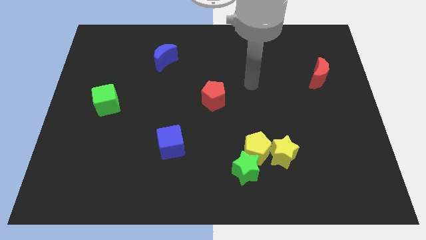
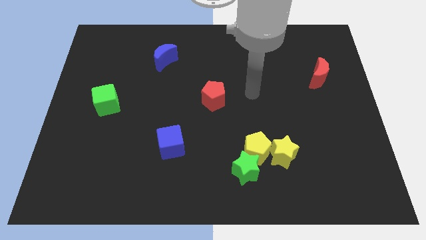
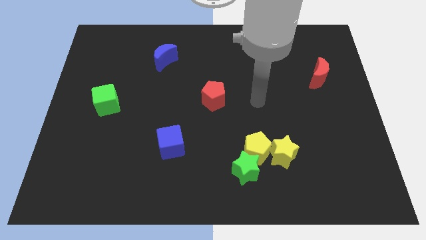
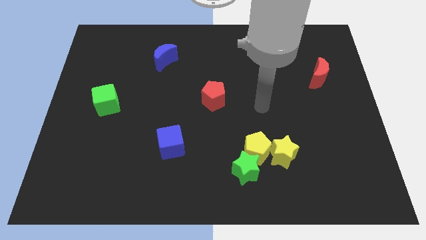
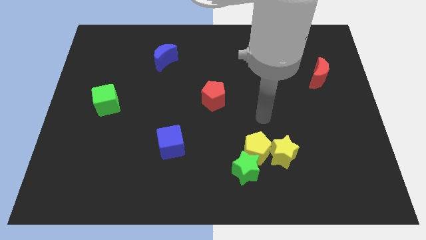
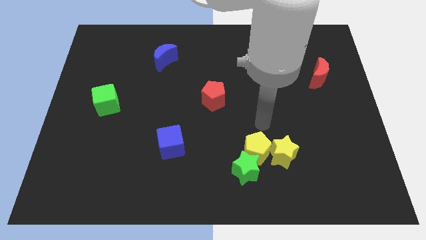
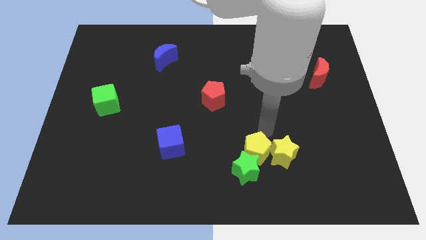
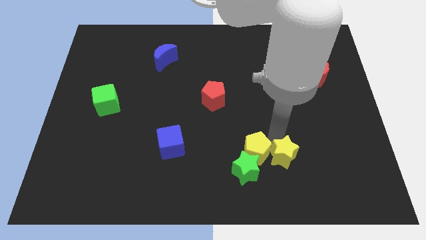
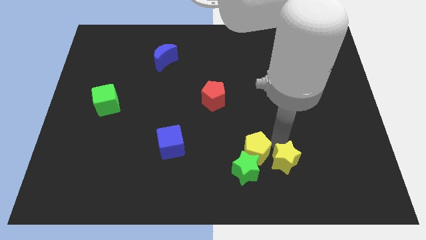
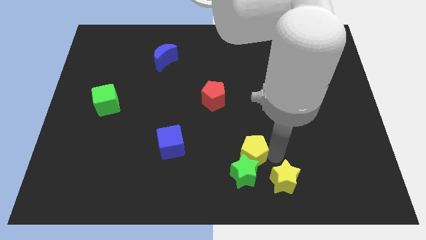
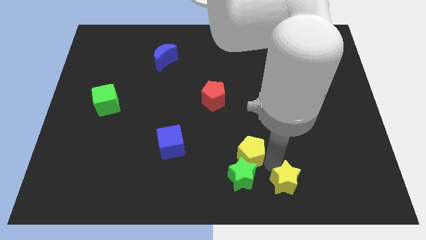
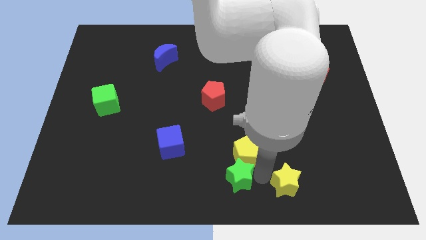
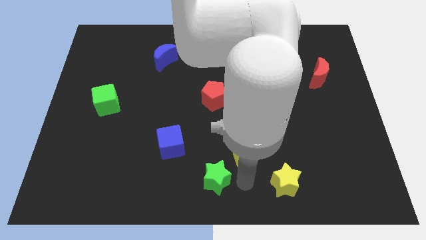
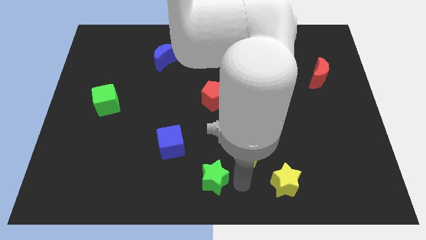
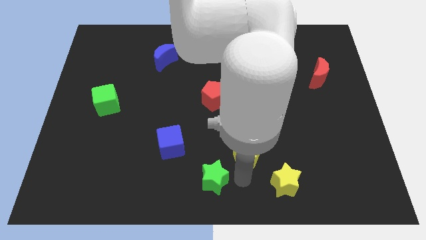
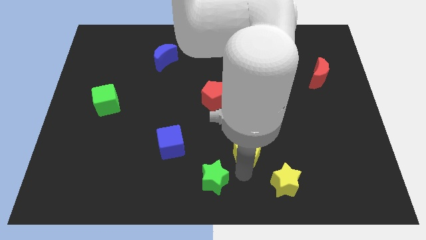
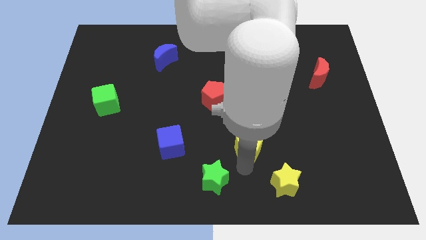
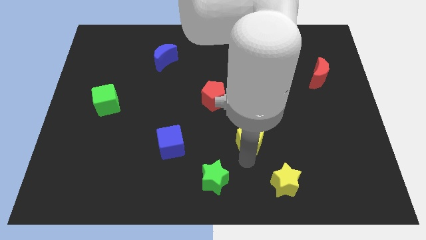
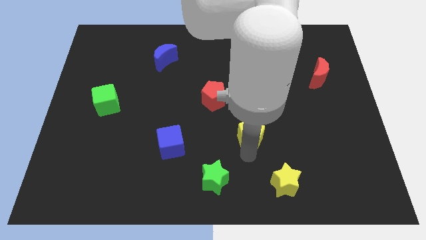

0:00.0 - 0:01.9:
pull the yellow pentagon apart from the green star and yellow star

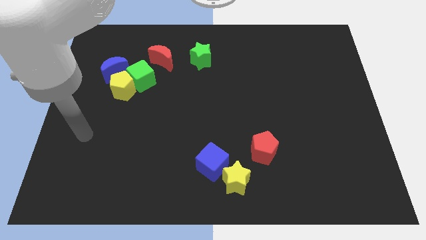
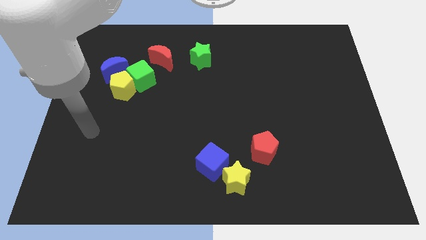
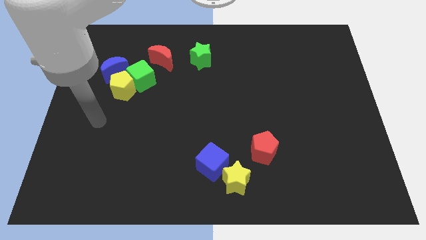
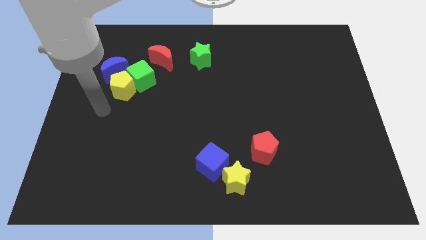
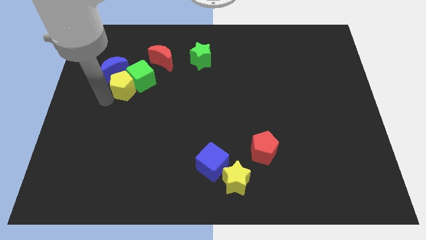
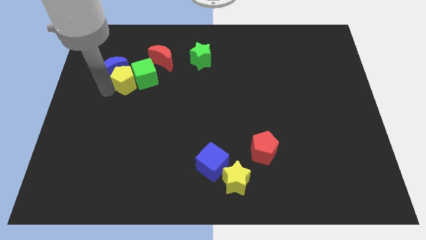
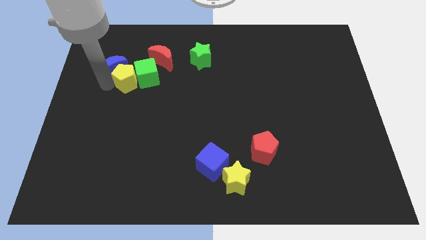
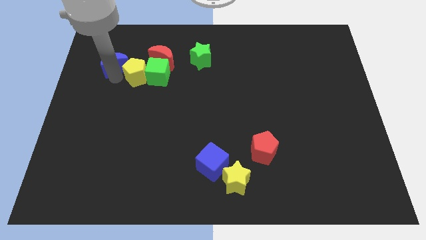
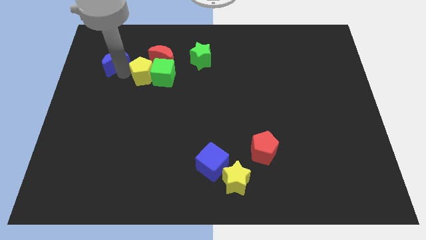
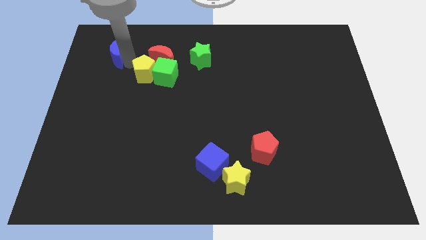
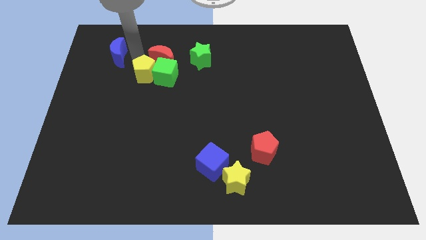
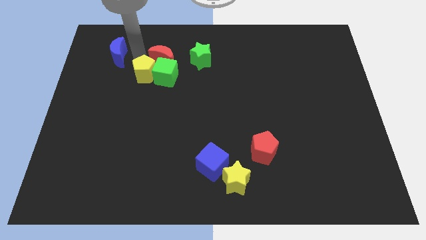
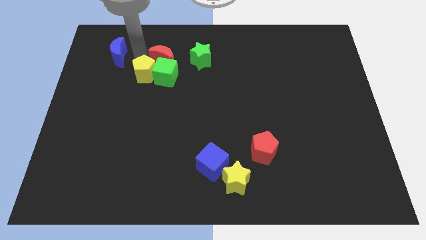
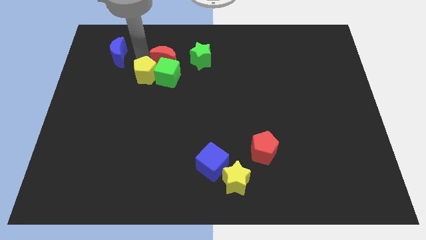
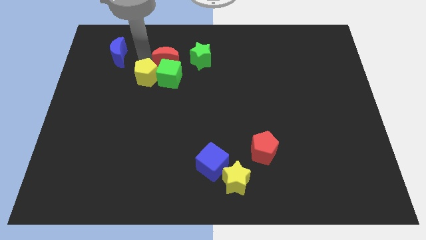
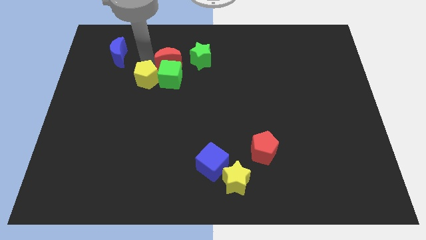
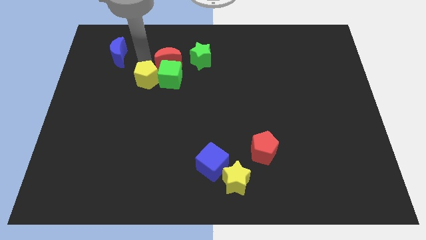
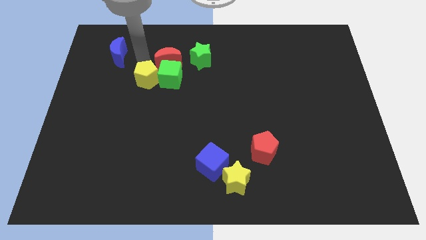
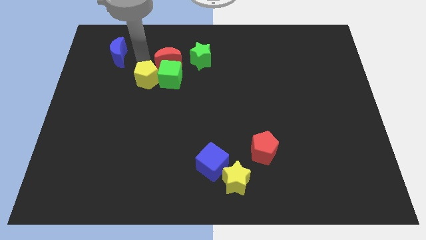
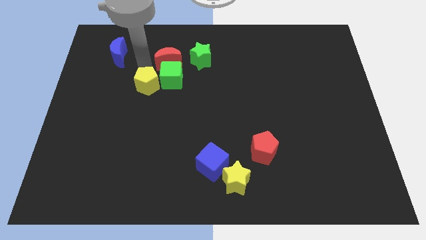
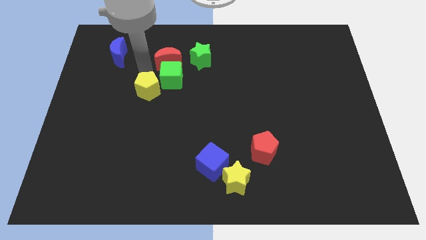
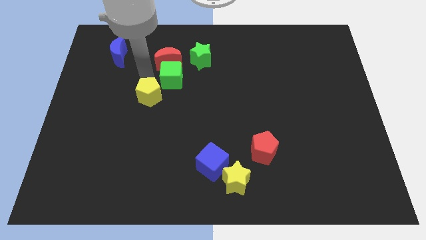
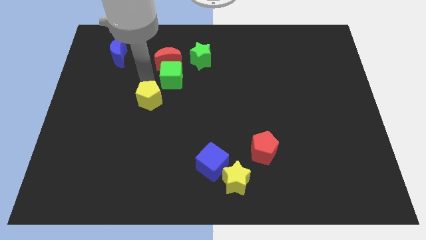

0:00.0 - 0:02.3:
separate the yellow pentagon from the green cube and blue moon

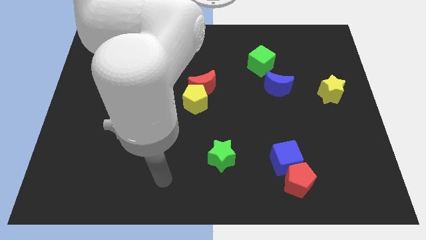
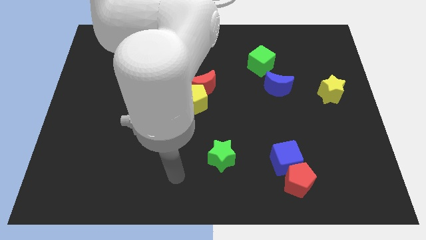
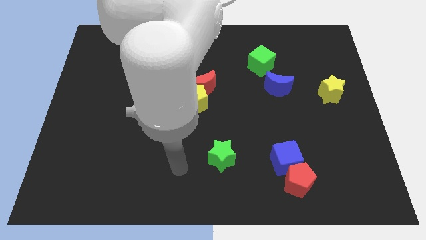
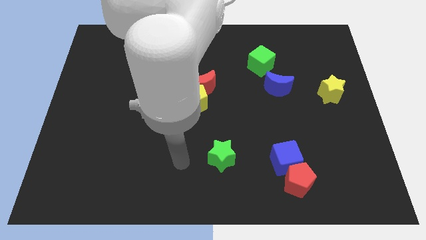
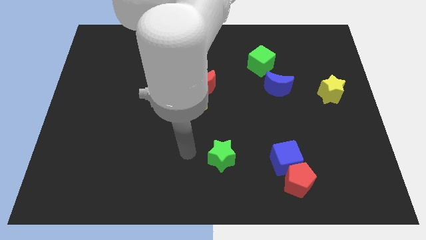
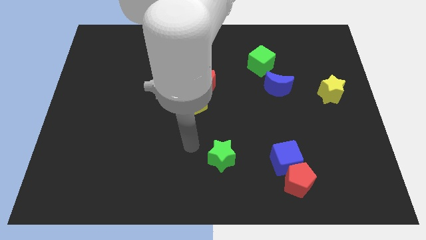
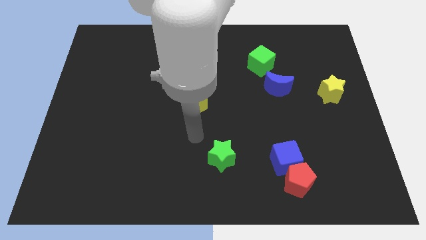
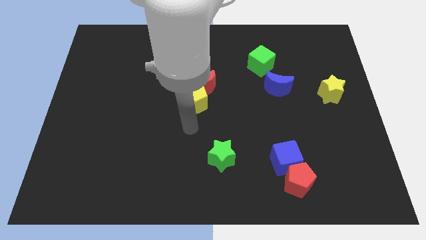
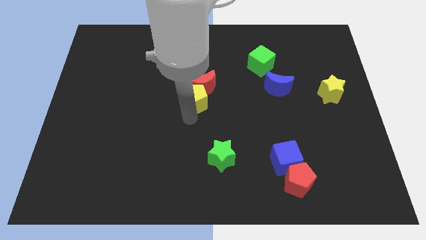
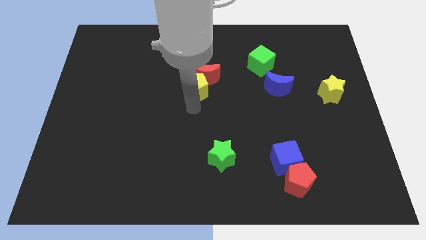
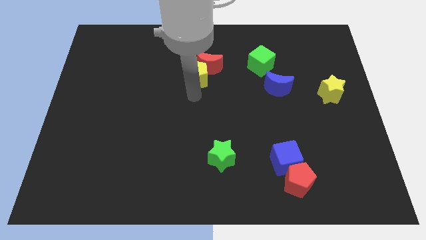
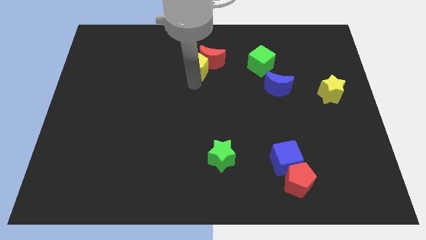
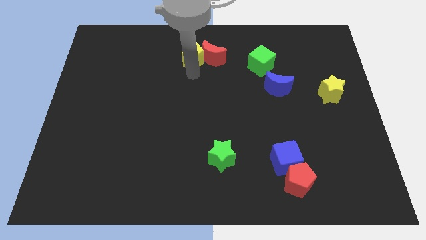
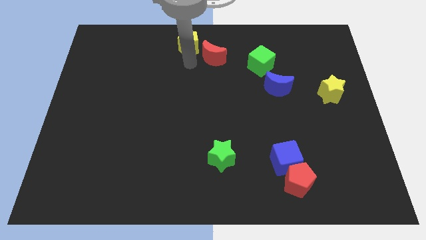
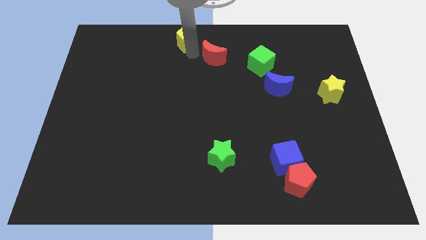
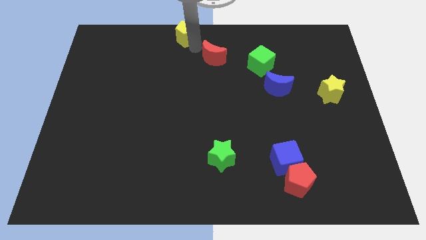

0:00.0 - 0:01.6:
separate the red moon from the yellow pentagon

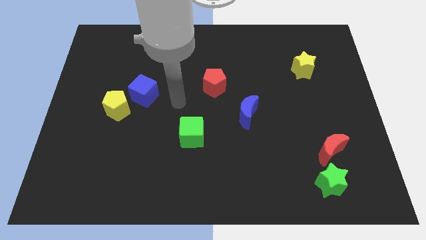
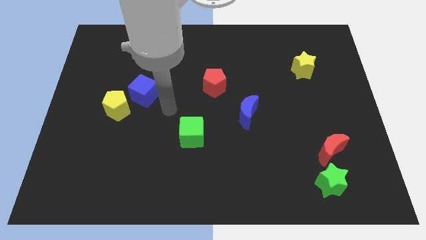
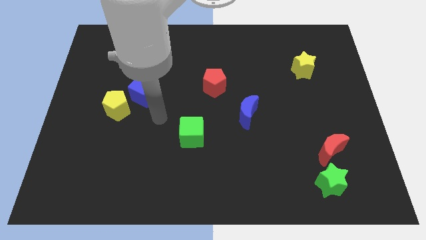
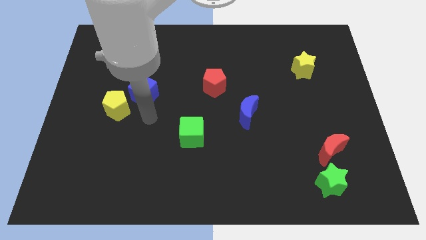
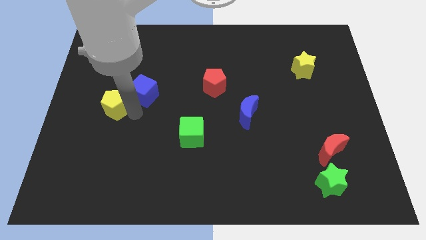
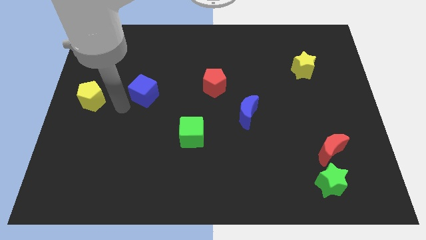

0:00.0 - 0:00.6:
pull the blue cube apart from the yellow pentagon

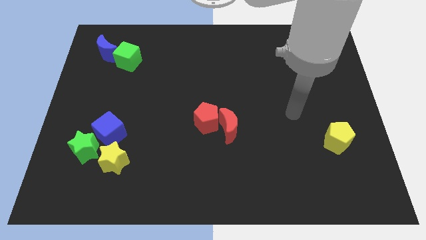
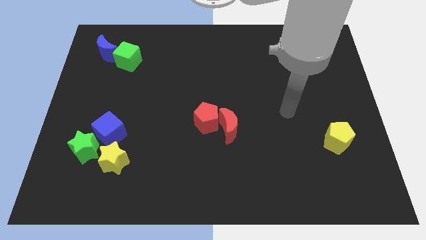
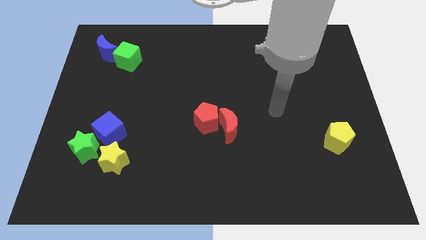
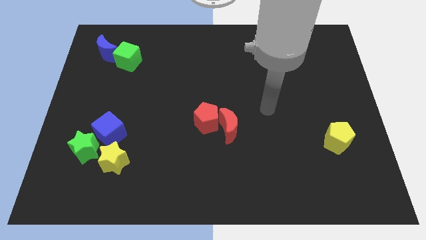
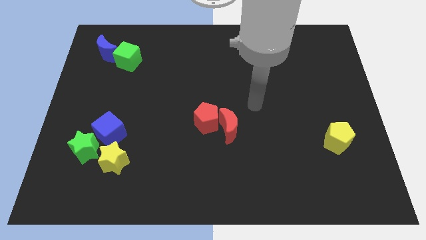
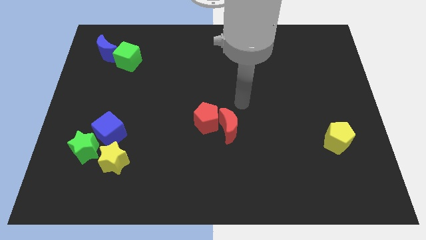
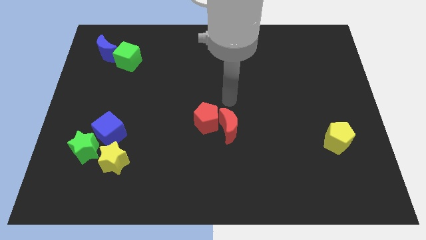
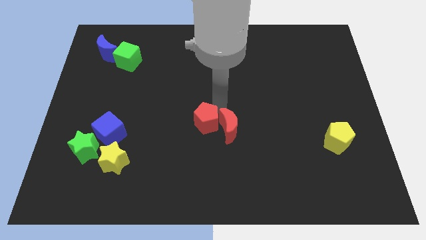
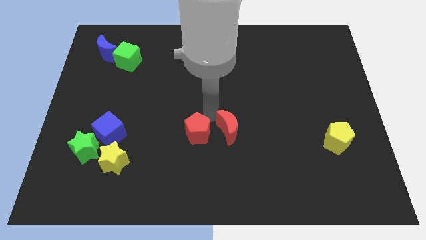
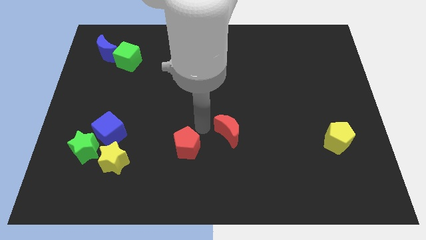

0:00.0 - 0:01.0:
move the red moon away from the red pentagon

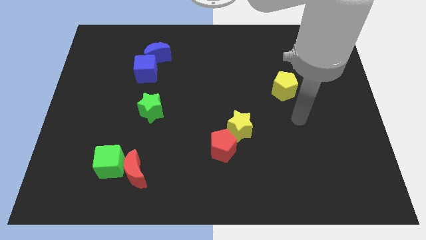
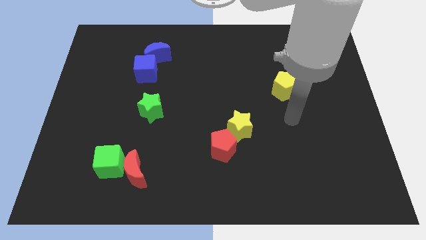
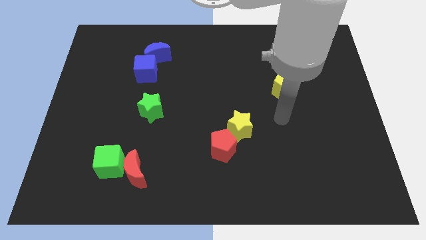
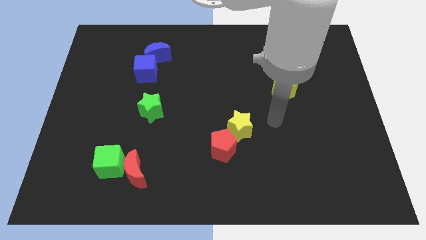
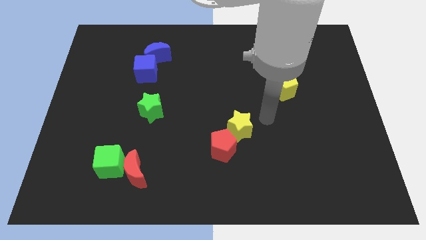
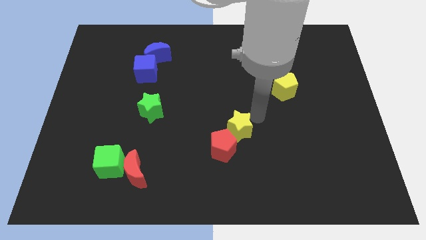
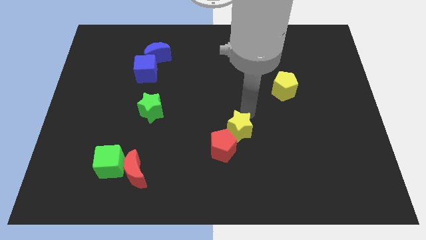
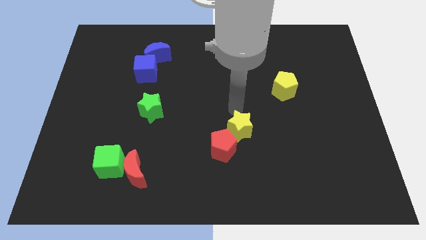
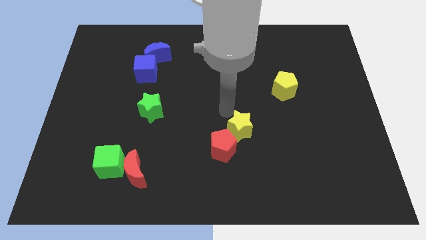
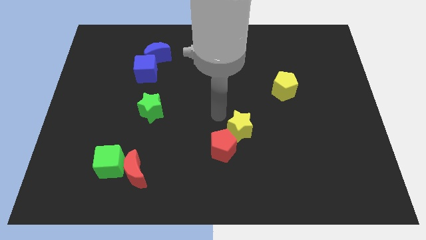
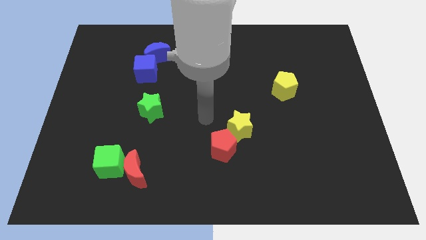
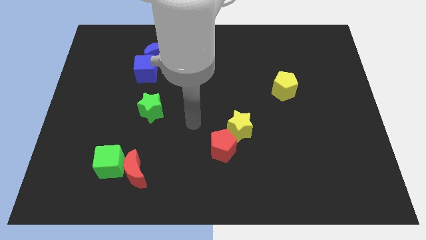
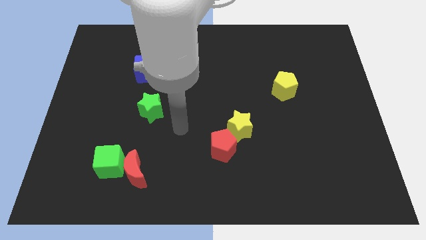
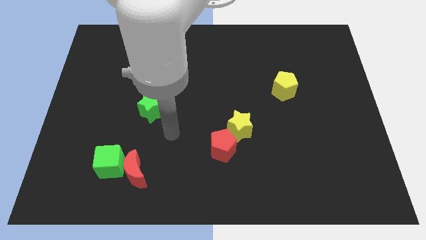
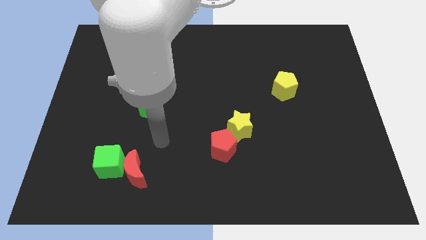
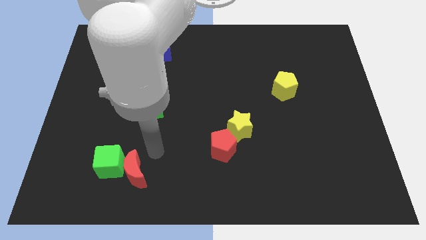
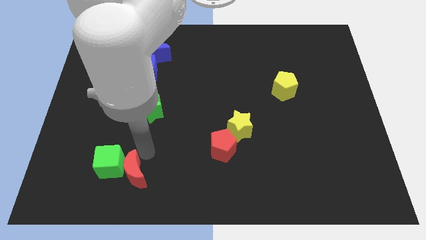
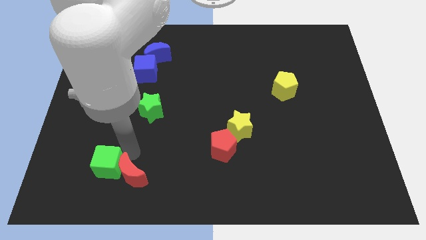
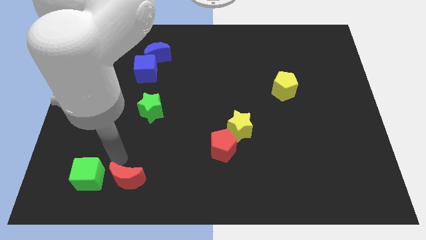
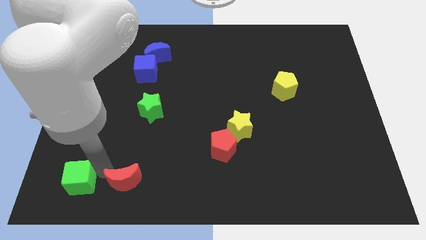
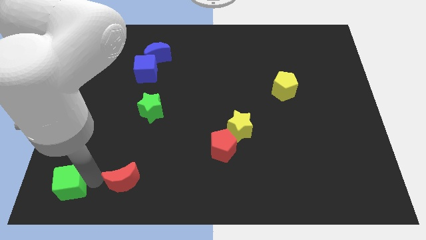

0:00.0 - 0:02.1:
move the red moon away from the green cube
